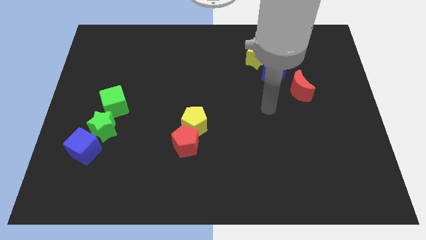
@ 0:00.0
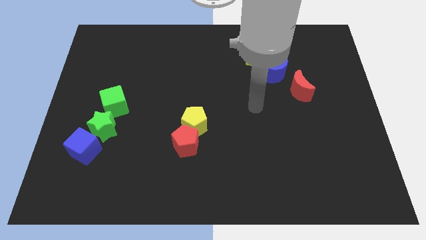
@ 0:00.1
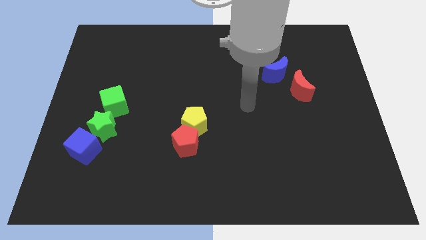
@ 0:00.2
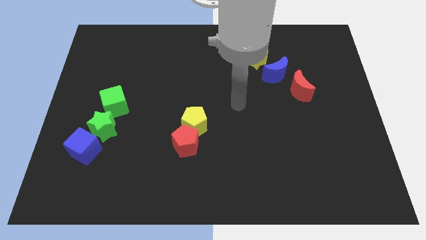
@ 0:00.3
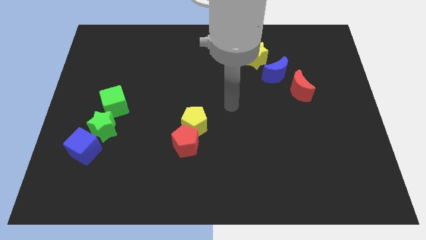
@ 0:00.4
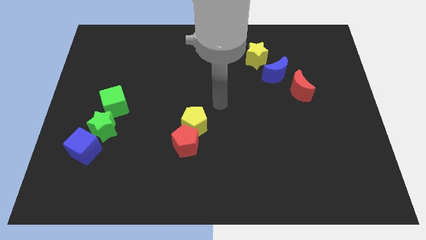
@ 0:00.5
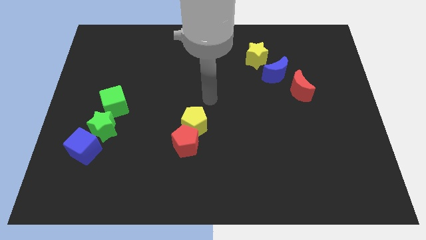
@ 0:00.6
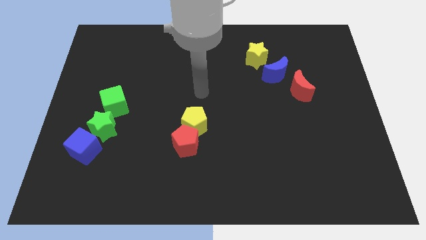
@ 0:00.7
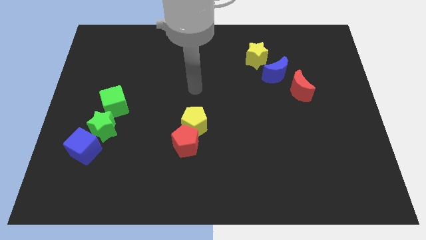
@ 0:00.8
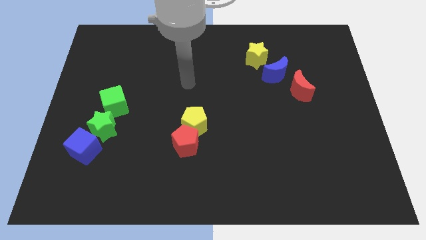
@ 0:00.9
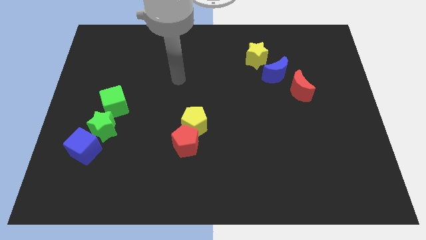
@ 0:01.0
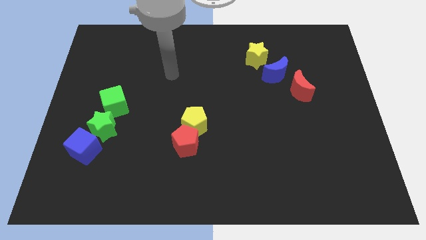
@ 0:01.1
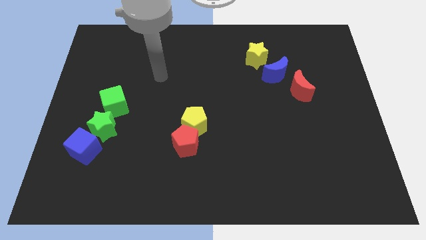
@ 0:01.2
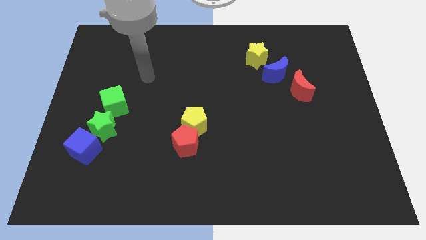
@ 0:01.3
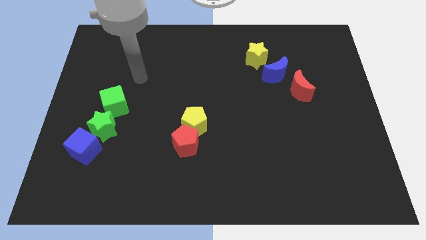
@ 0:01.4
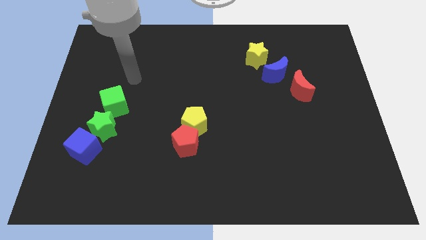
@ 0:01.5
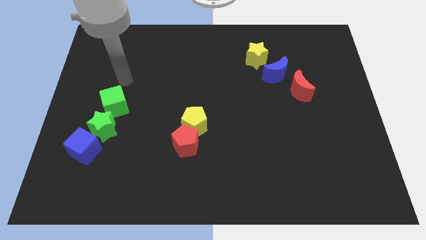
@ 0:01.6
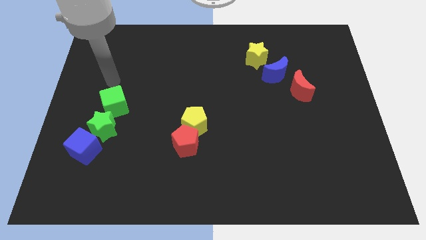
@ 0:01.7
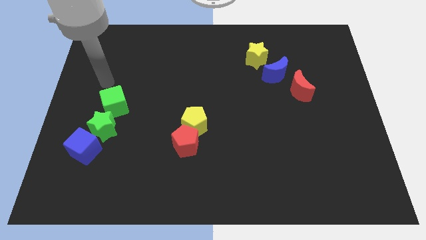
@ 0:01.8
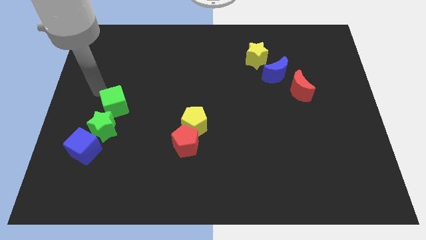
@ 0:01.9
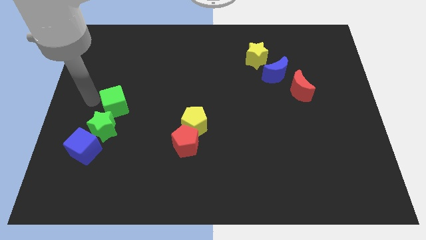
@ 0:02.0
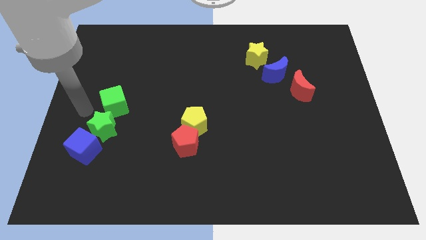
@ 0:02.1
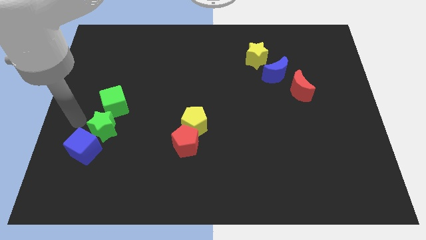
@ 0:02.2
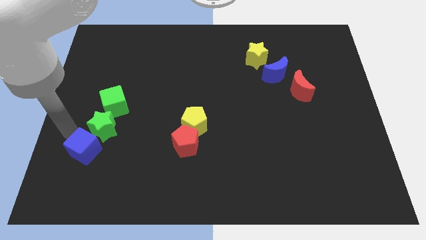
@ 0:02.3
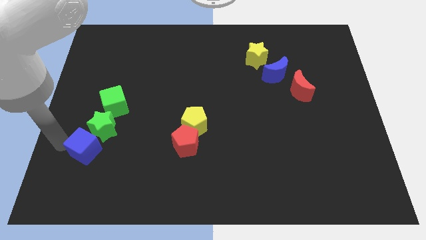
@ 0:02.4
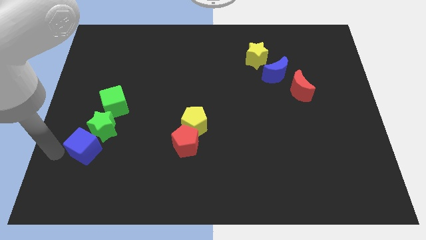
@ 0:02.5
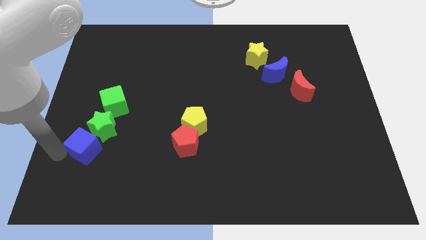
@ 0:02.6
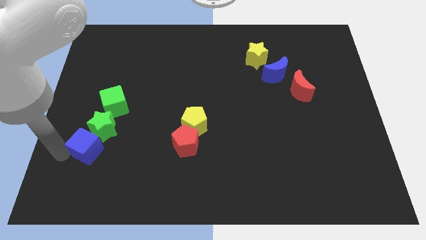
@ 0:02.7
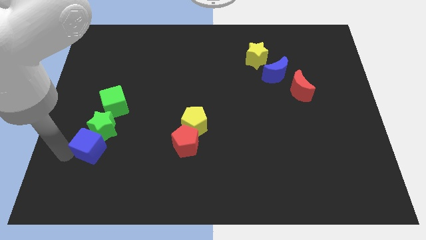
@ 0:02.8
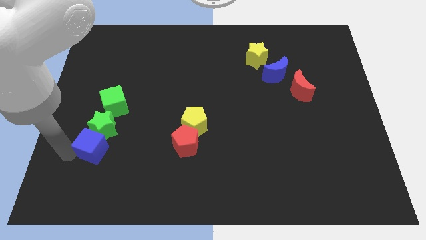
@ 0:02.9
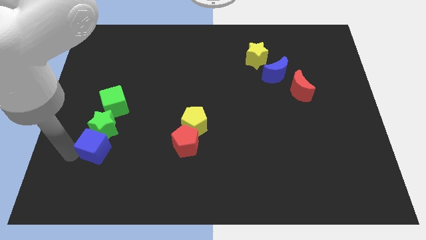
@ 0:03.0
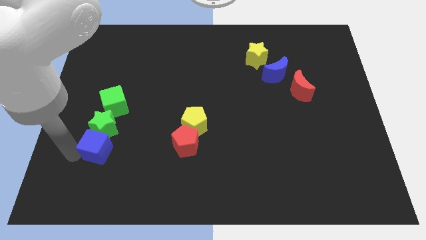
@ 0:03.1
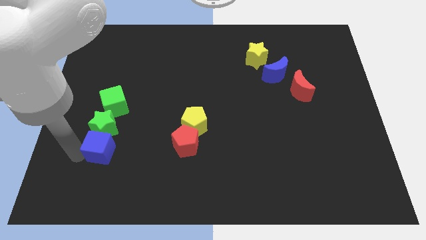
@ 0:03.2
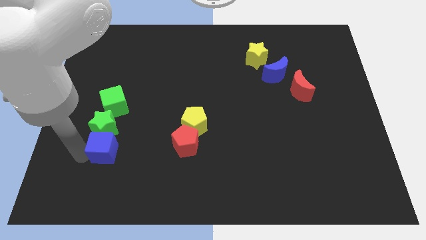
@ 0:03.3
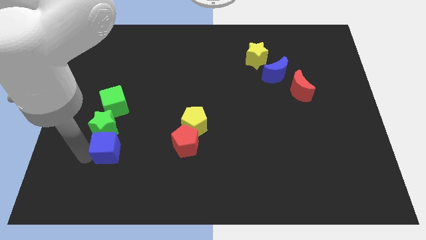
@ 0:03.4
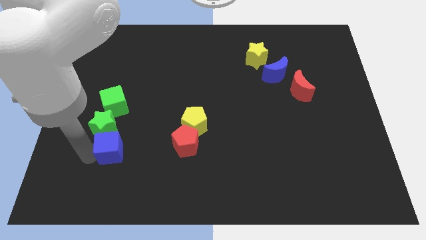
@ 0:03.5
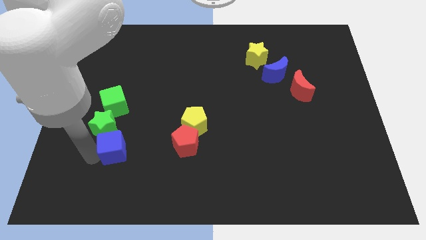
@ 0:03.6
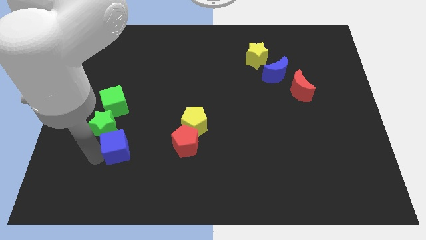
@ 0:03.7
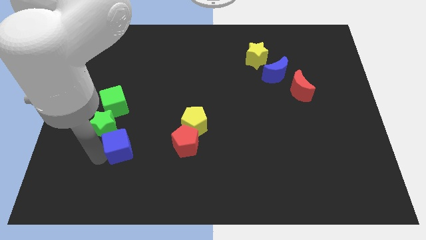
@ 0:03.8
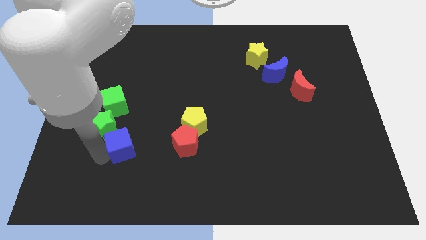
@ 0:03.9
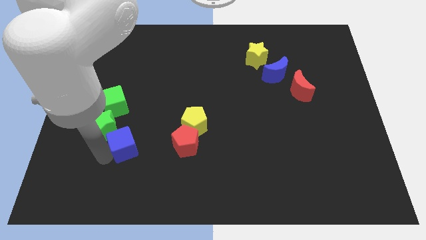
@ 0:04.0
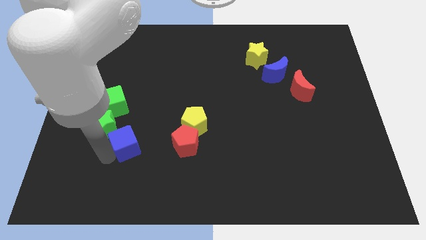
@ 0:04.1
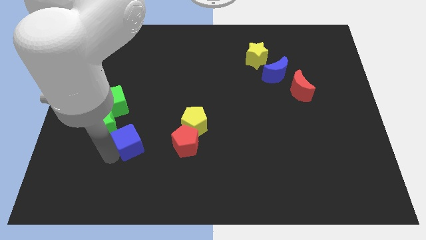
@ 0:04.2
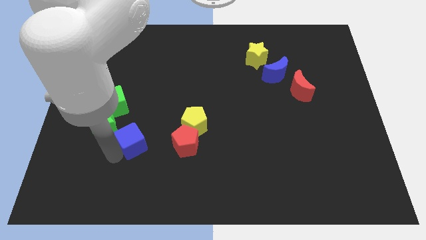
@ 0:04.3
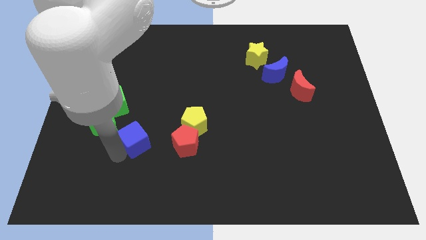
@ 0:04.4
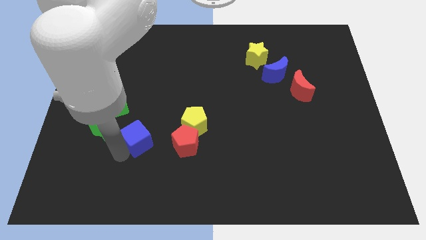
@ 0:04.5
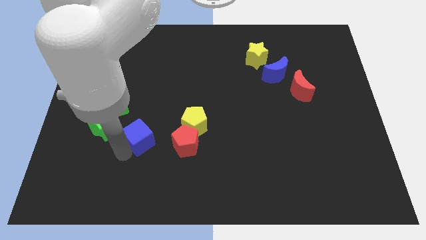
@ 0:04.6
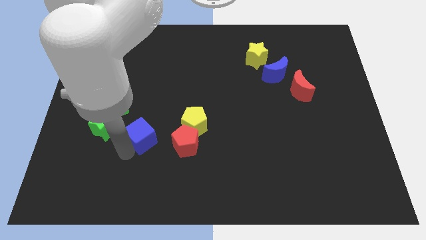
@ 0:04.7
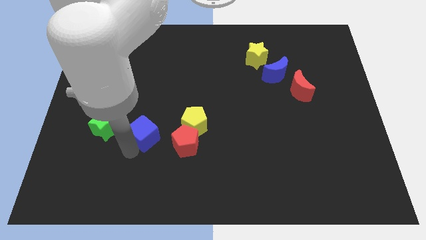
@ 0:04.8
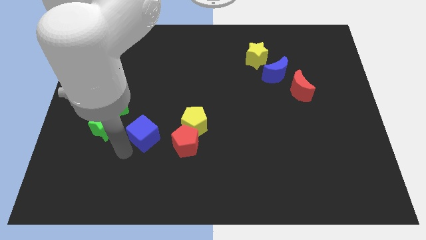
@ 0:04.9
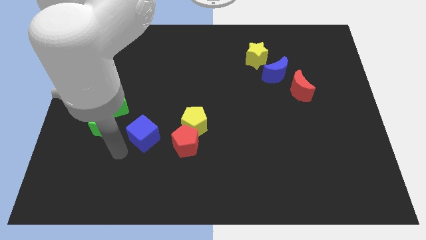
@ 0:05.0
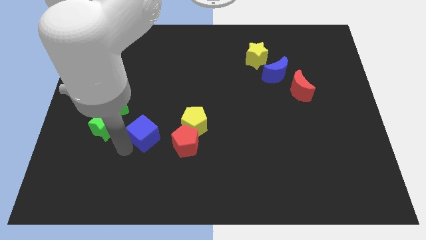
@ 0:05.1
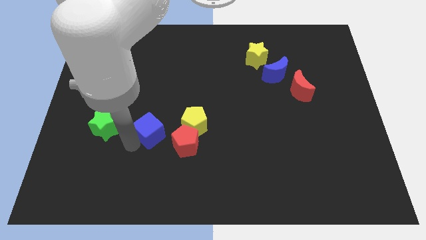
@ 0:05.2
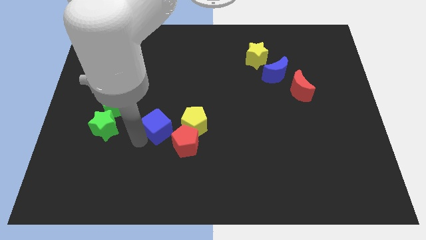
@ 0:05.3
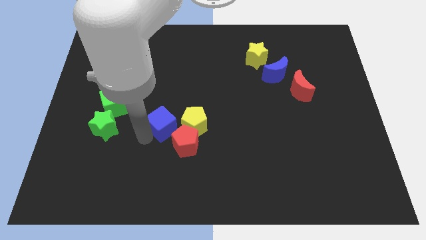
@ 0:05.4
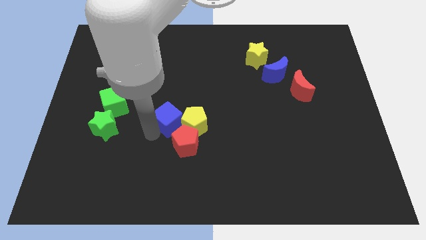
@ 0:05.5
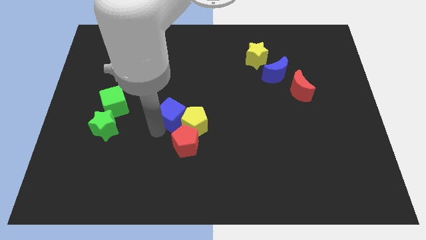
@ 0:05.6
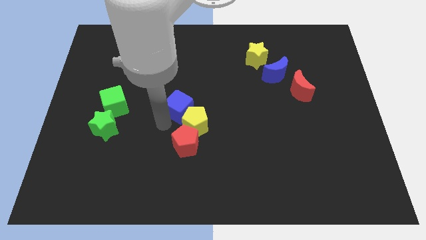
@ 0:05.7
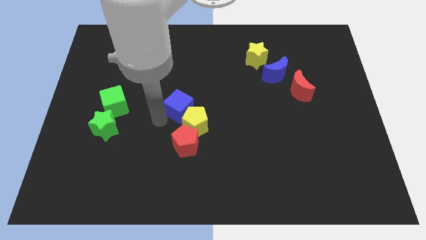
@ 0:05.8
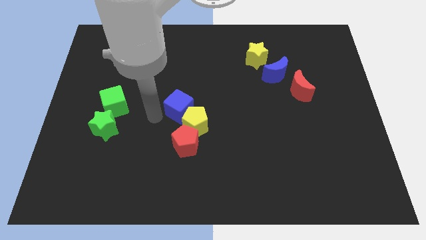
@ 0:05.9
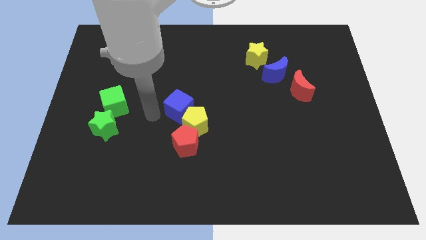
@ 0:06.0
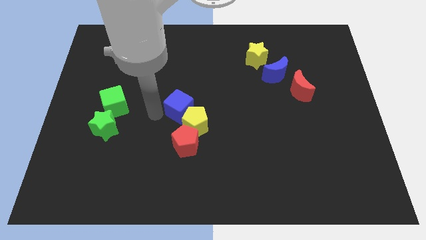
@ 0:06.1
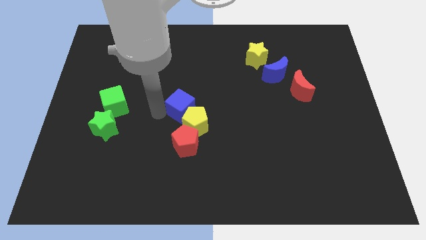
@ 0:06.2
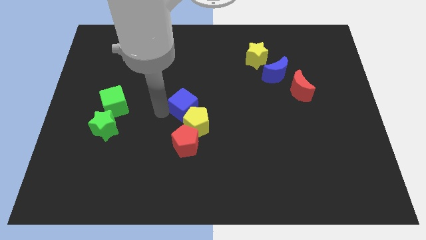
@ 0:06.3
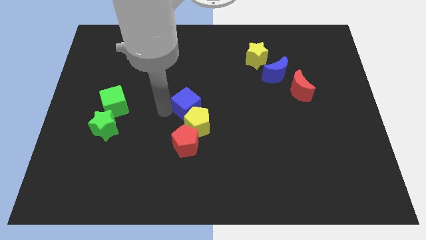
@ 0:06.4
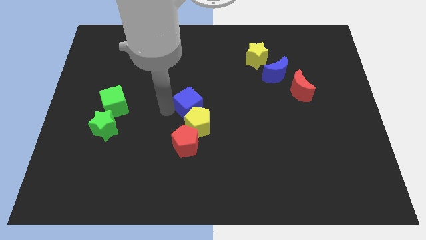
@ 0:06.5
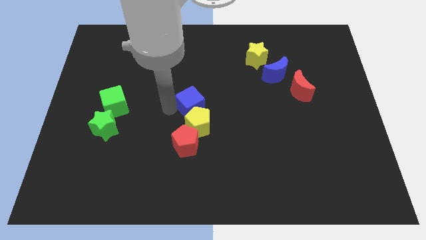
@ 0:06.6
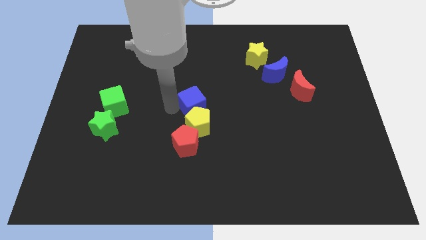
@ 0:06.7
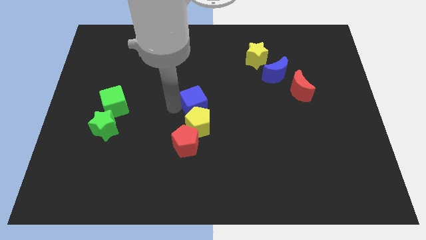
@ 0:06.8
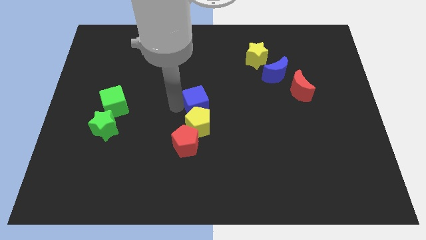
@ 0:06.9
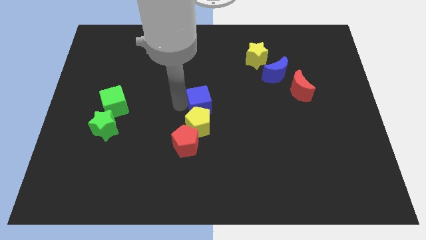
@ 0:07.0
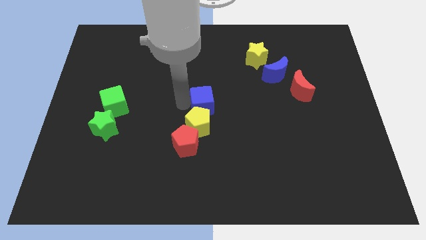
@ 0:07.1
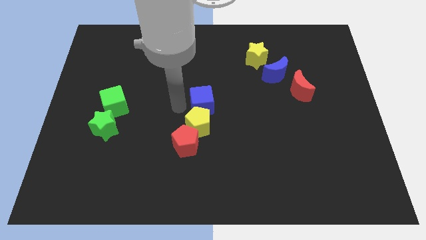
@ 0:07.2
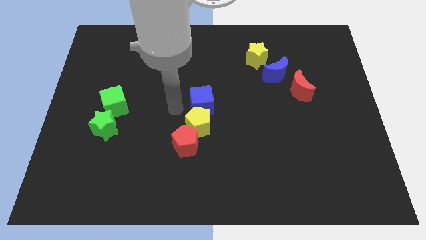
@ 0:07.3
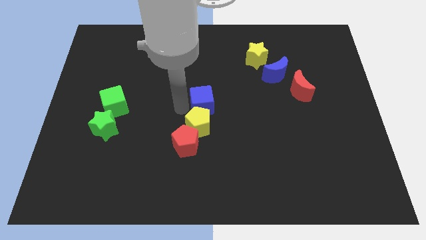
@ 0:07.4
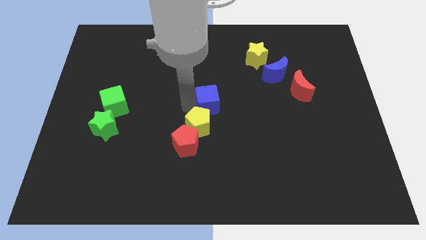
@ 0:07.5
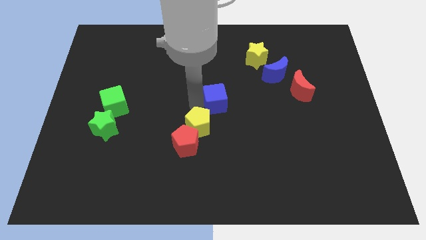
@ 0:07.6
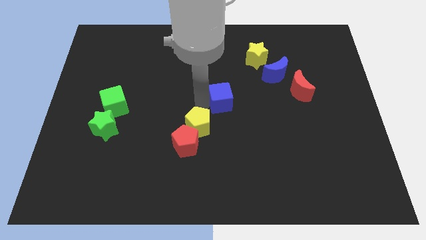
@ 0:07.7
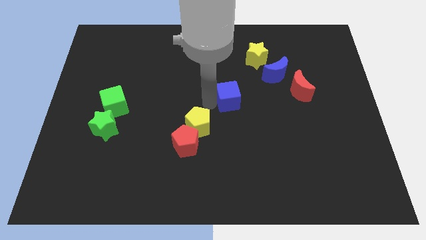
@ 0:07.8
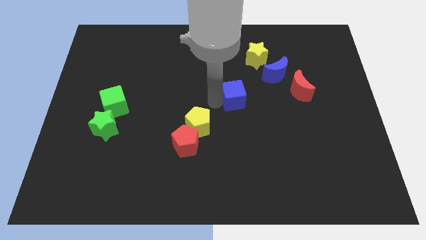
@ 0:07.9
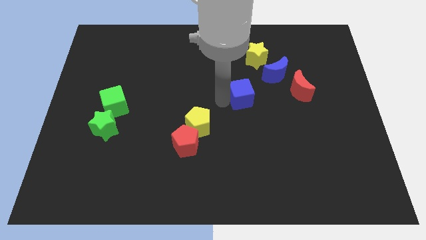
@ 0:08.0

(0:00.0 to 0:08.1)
put the blue cube left of the red moon
